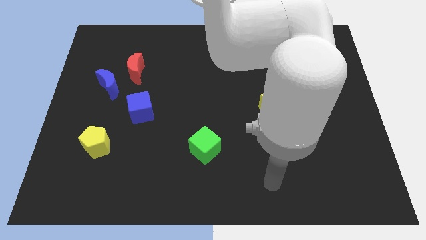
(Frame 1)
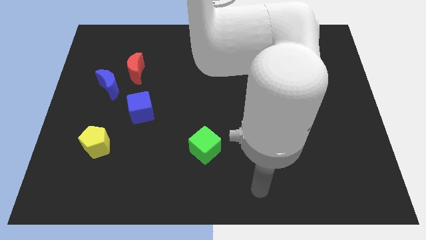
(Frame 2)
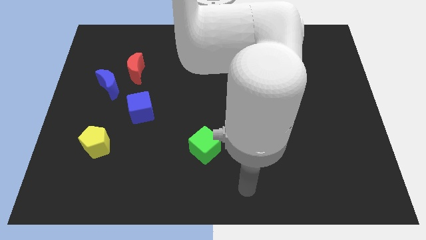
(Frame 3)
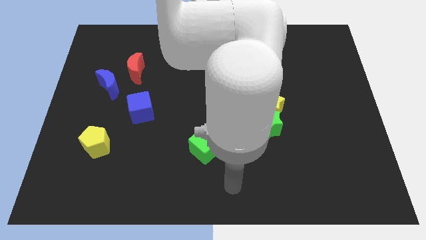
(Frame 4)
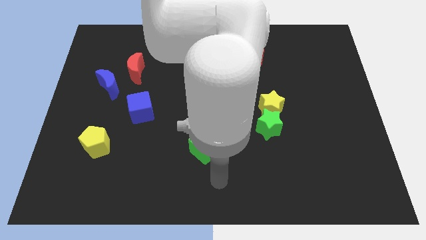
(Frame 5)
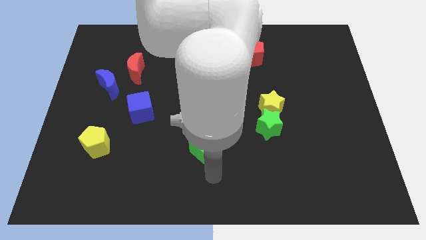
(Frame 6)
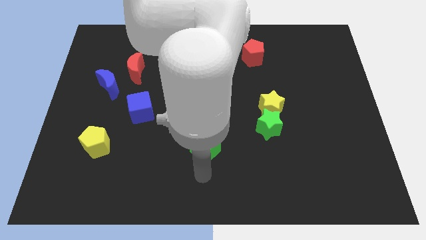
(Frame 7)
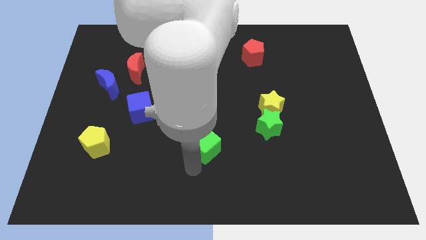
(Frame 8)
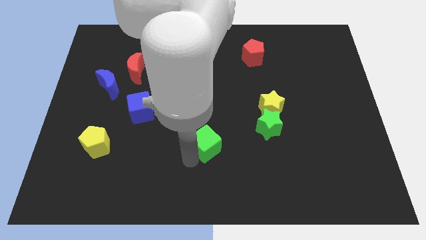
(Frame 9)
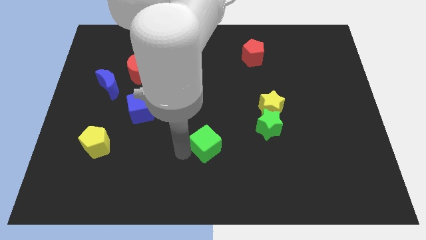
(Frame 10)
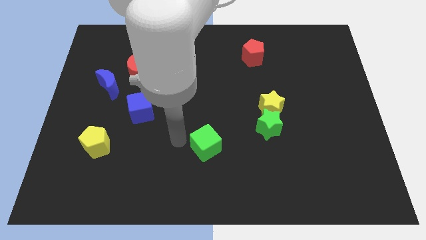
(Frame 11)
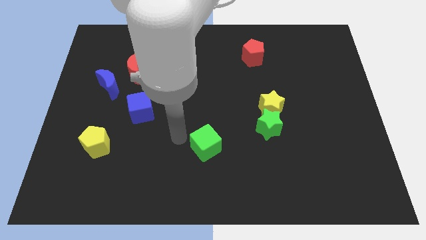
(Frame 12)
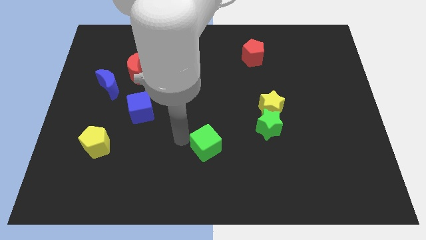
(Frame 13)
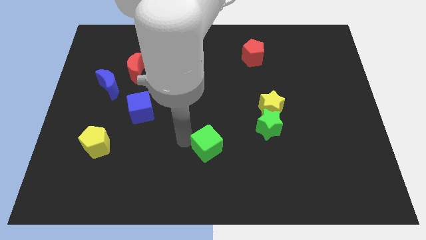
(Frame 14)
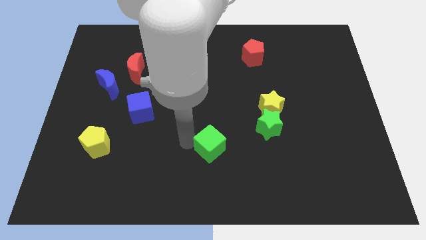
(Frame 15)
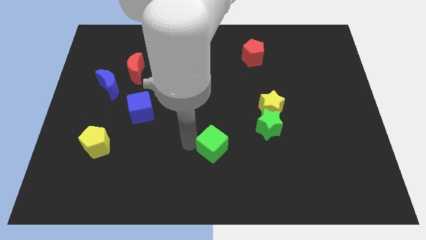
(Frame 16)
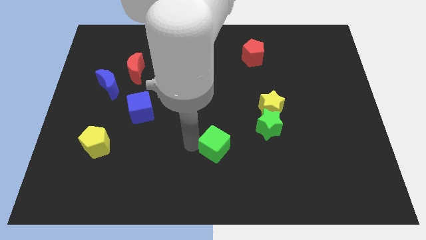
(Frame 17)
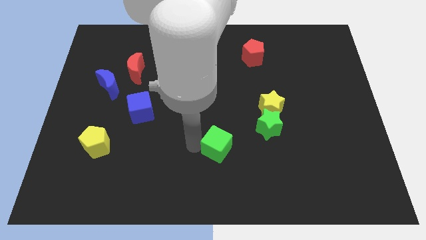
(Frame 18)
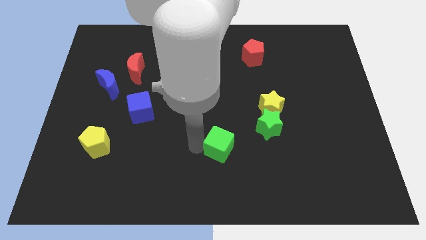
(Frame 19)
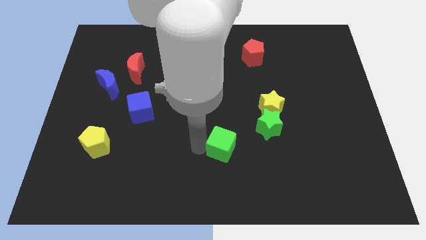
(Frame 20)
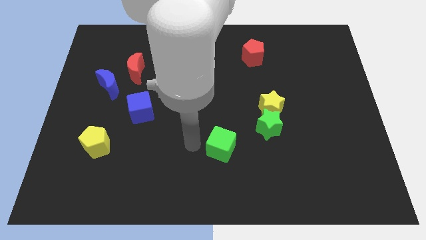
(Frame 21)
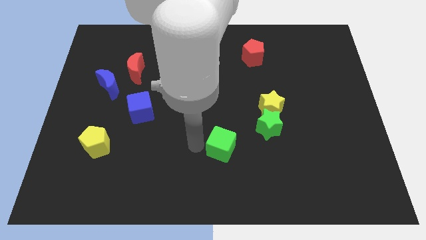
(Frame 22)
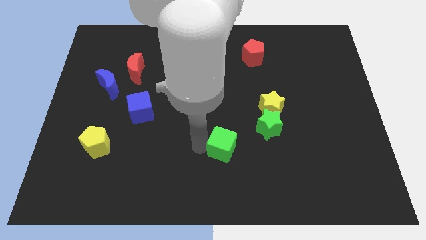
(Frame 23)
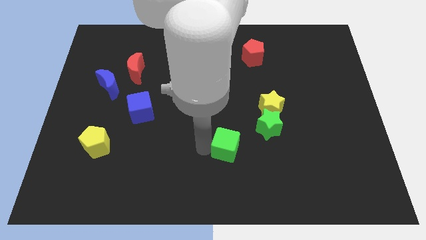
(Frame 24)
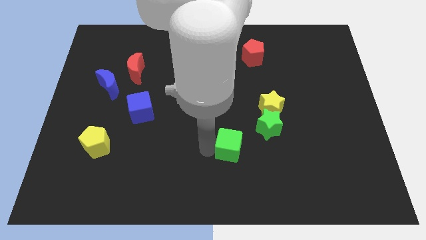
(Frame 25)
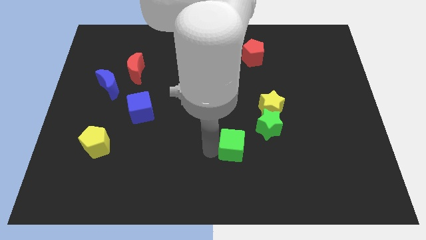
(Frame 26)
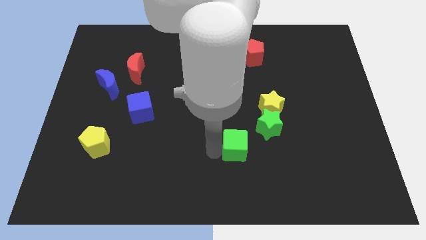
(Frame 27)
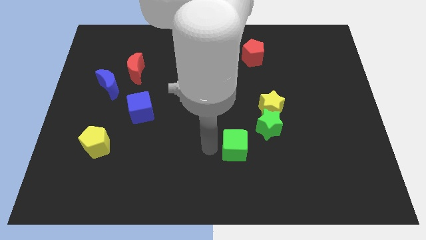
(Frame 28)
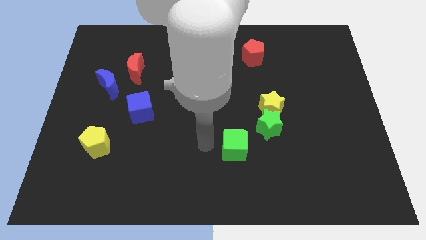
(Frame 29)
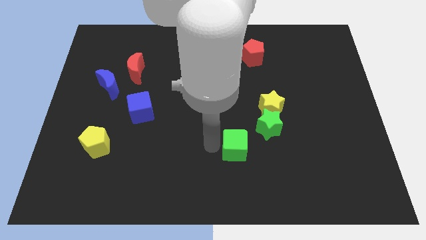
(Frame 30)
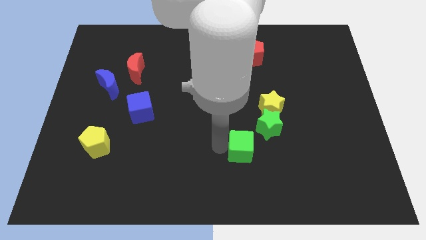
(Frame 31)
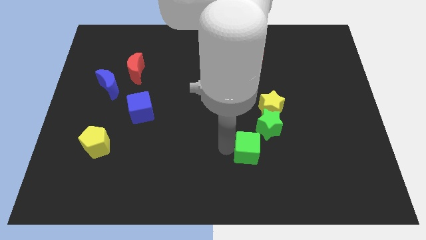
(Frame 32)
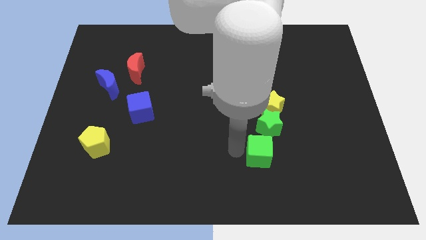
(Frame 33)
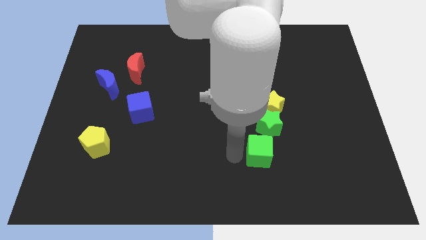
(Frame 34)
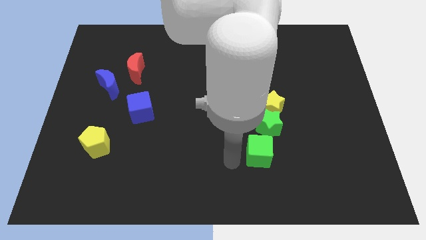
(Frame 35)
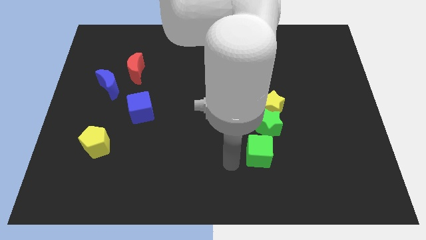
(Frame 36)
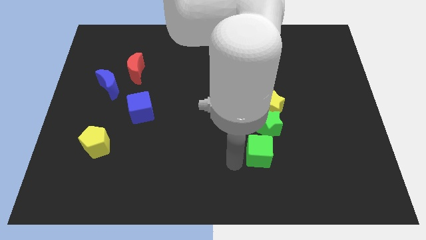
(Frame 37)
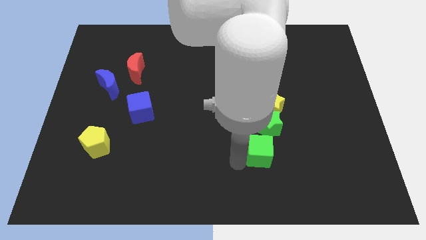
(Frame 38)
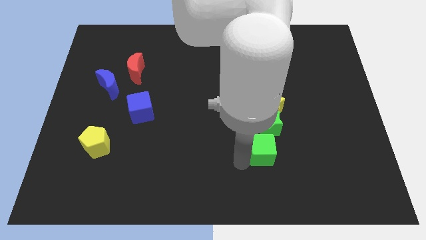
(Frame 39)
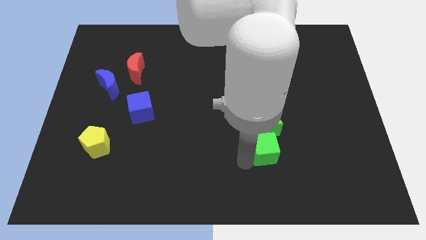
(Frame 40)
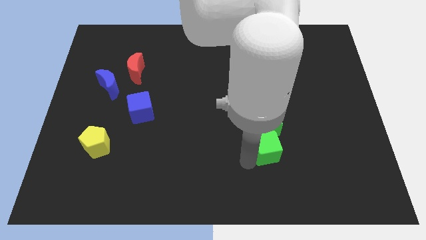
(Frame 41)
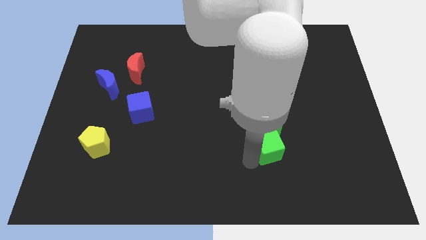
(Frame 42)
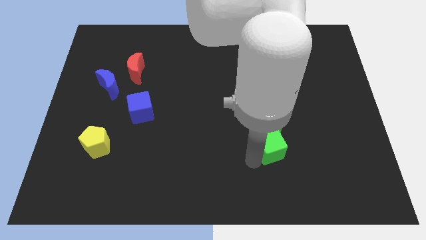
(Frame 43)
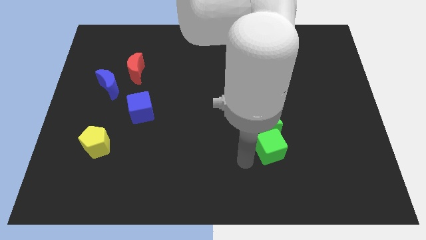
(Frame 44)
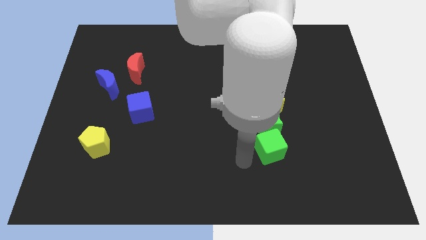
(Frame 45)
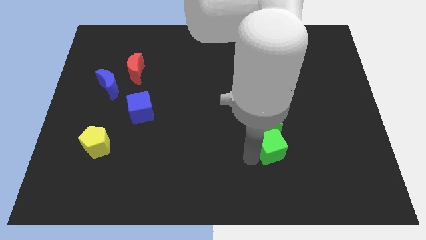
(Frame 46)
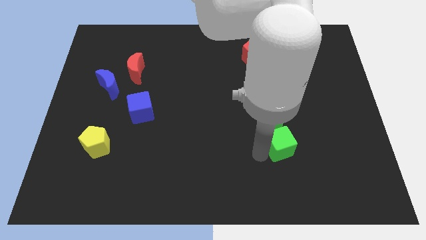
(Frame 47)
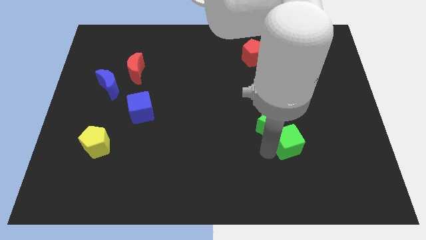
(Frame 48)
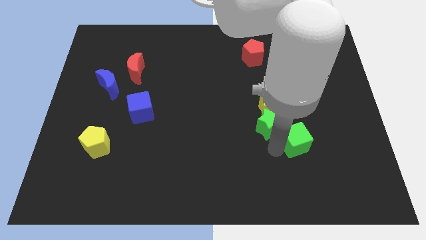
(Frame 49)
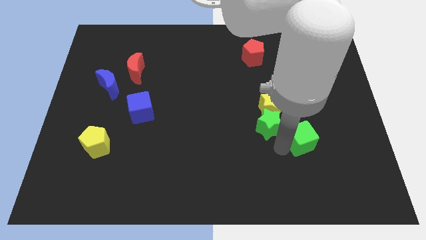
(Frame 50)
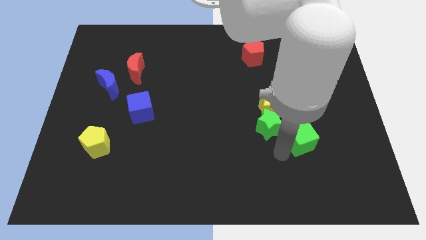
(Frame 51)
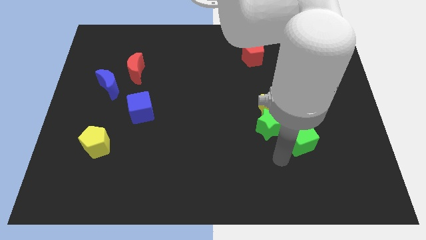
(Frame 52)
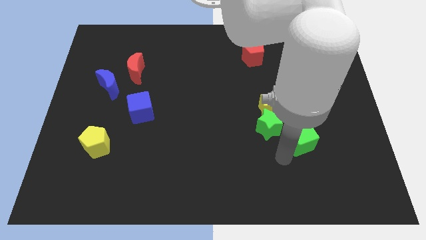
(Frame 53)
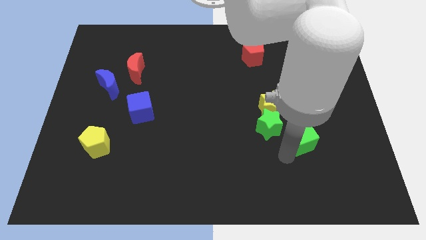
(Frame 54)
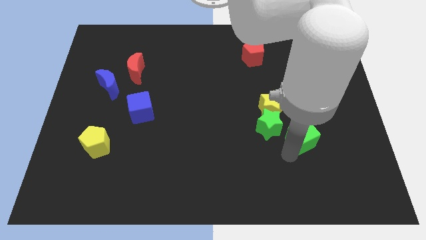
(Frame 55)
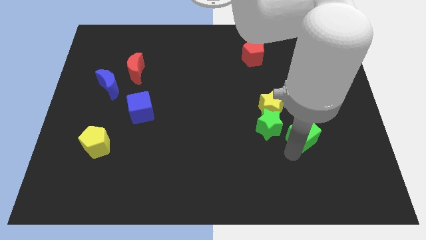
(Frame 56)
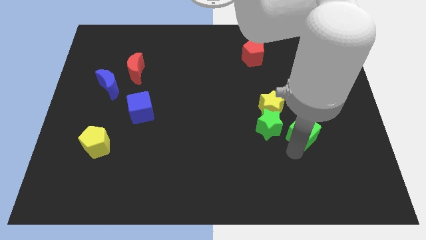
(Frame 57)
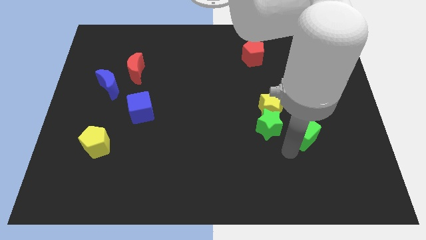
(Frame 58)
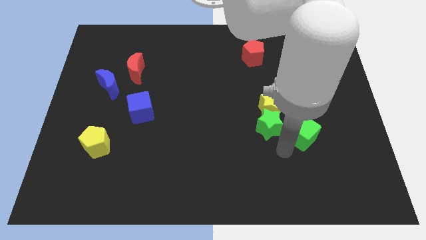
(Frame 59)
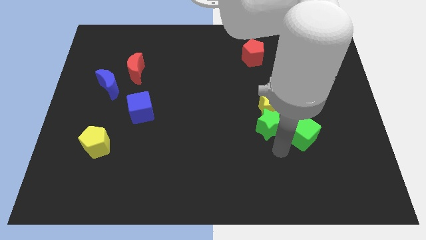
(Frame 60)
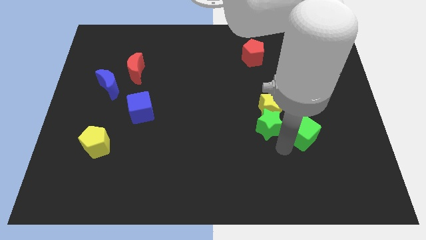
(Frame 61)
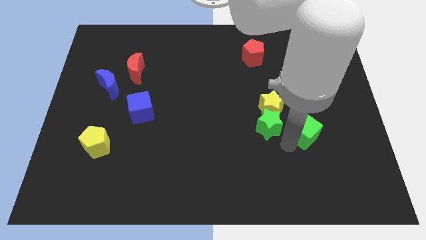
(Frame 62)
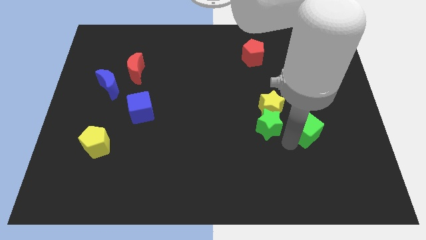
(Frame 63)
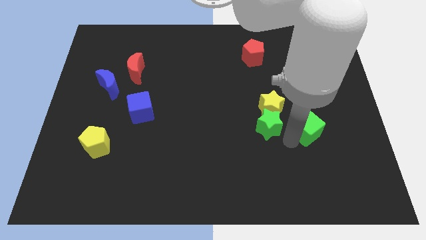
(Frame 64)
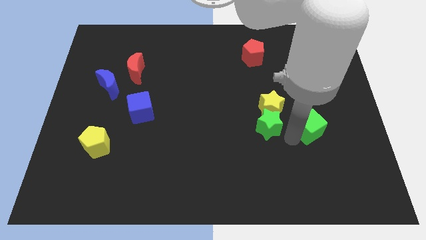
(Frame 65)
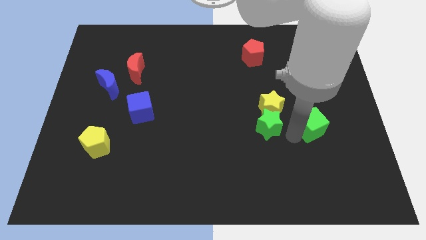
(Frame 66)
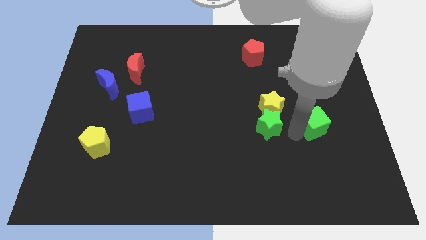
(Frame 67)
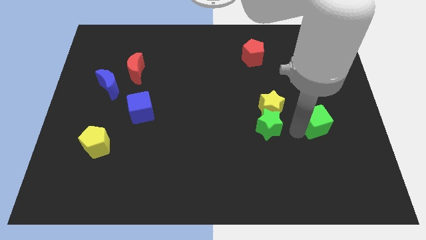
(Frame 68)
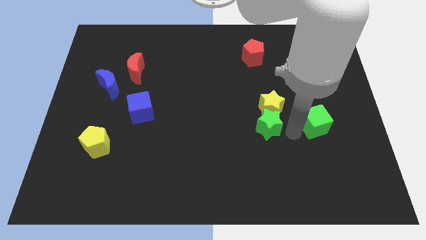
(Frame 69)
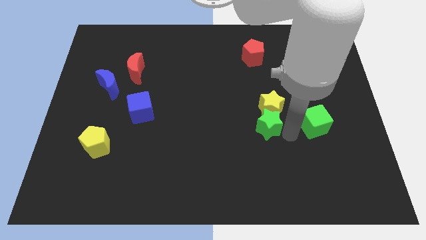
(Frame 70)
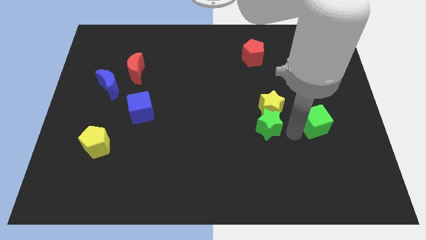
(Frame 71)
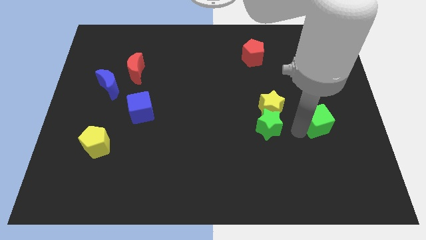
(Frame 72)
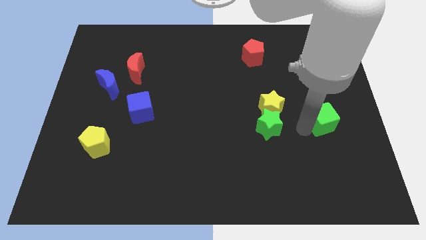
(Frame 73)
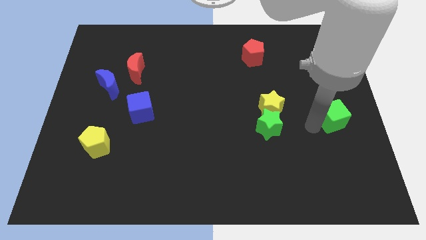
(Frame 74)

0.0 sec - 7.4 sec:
put the green cube to the center right
